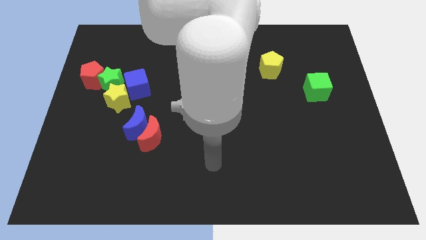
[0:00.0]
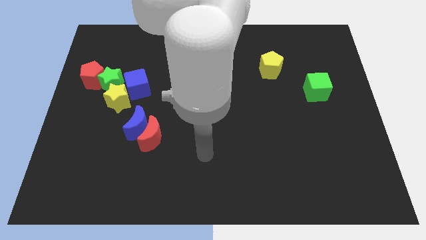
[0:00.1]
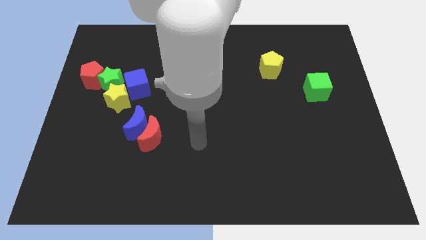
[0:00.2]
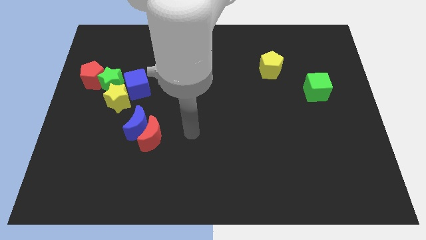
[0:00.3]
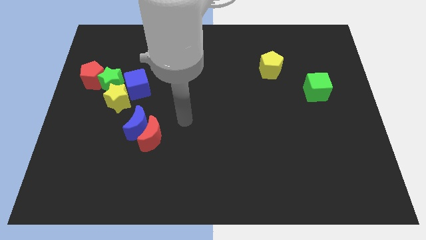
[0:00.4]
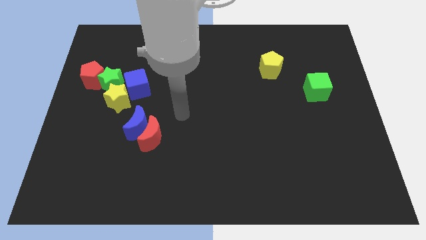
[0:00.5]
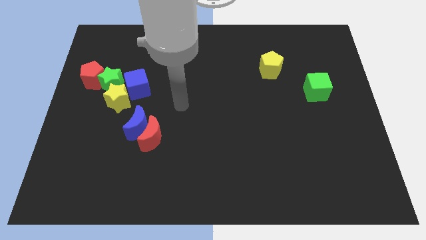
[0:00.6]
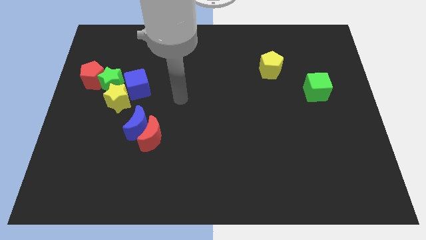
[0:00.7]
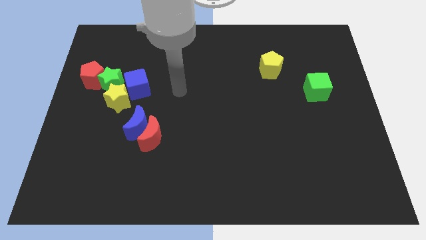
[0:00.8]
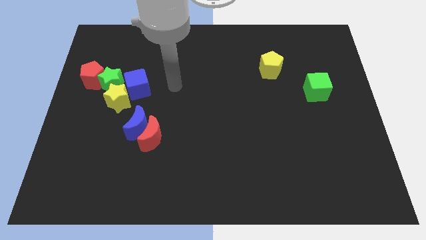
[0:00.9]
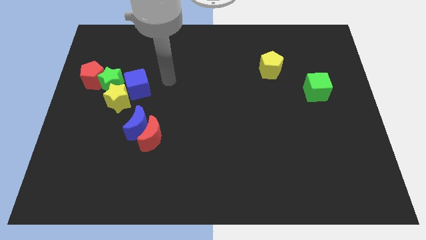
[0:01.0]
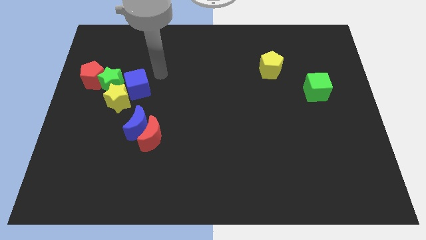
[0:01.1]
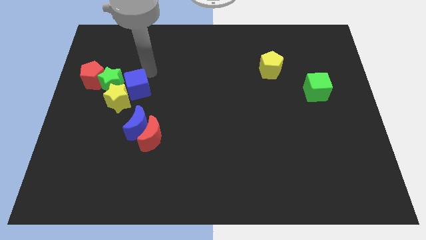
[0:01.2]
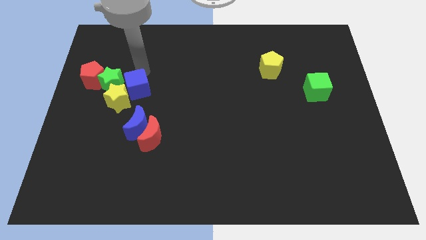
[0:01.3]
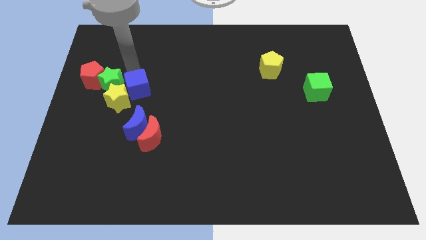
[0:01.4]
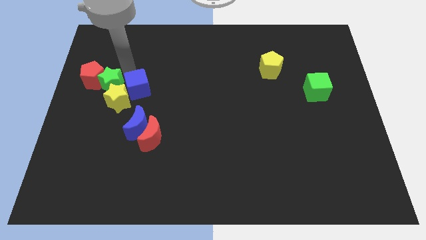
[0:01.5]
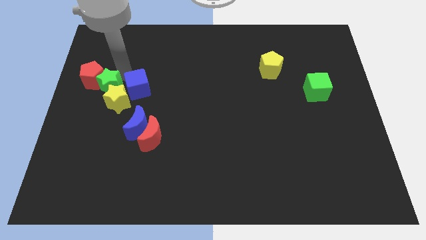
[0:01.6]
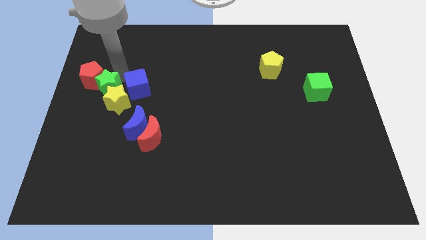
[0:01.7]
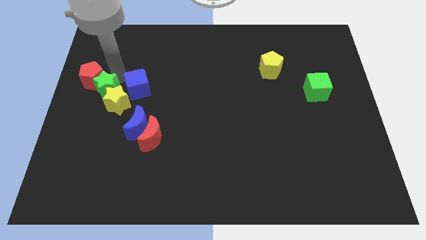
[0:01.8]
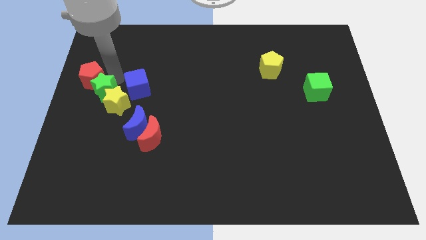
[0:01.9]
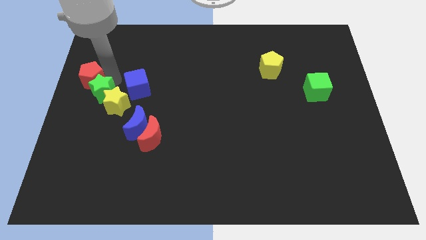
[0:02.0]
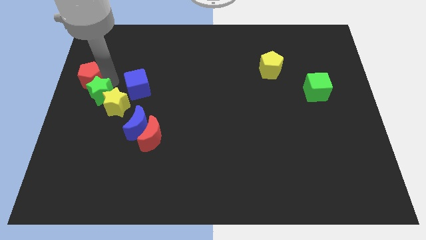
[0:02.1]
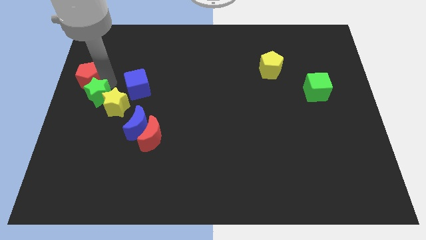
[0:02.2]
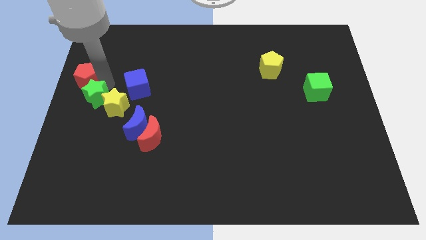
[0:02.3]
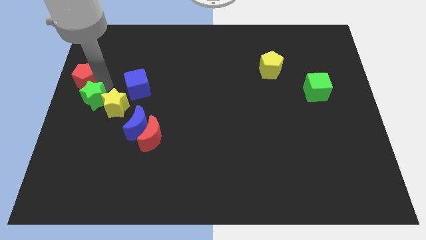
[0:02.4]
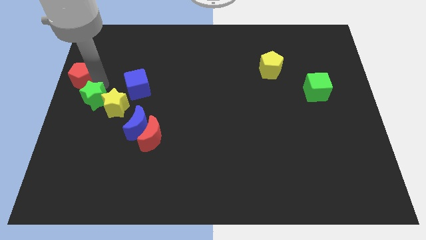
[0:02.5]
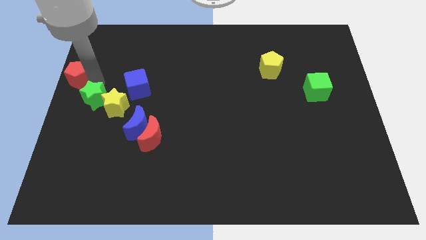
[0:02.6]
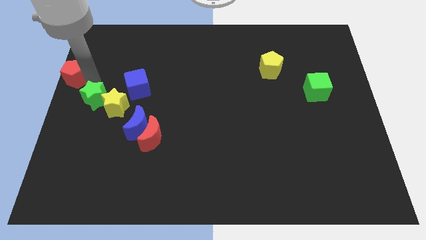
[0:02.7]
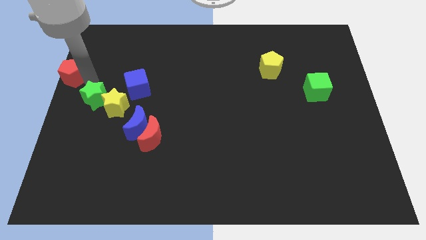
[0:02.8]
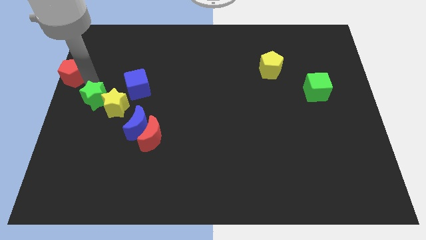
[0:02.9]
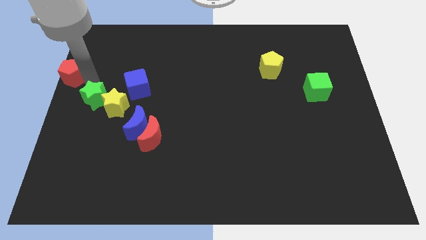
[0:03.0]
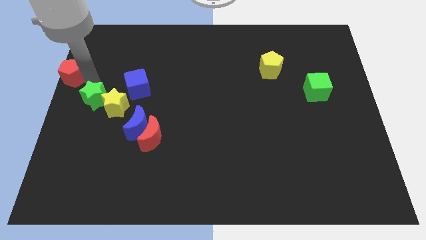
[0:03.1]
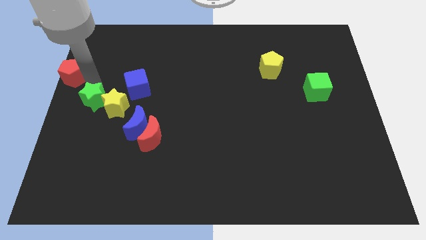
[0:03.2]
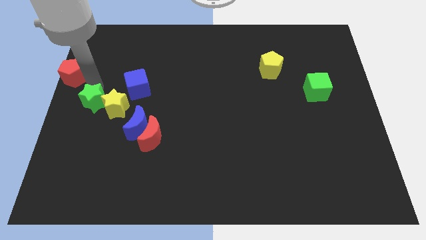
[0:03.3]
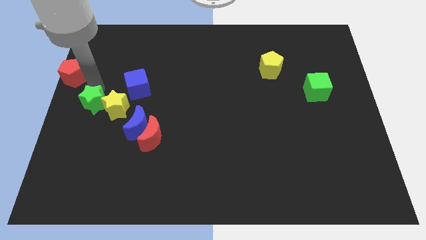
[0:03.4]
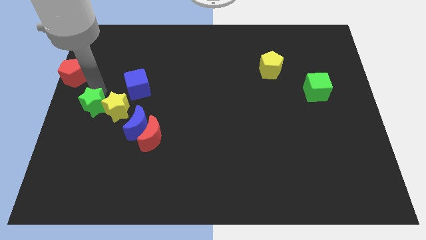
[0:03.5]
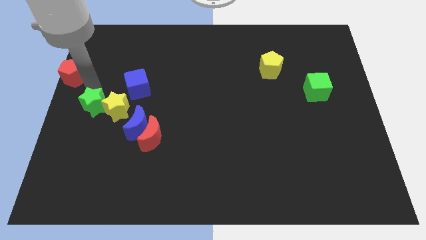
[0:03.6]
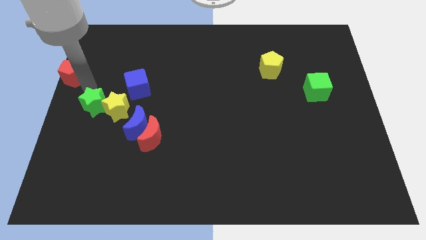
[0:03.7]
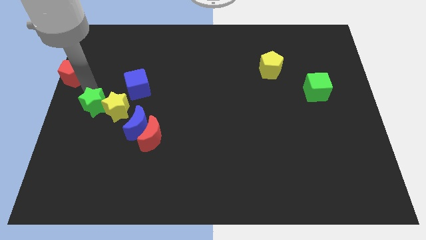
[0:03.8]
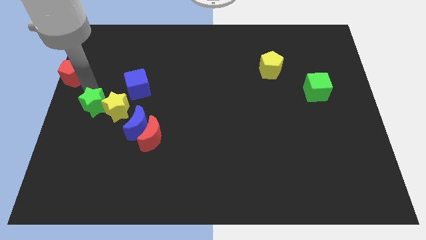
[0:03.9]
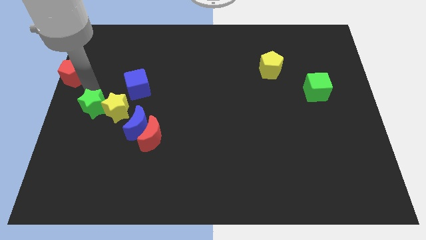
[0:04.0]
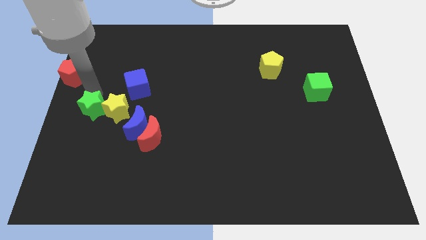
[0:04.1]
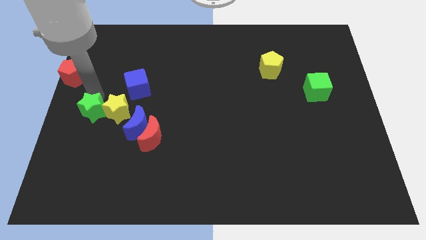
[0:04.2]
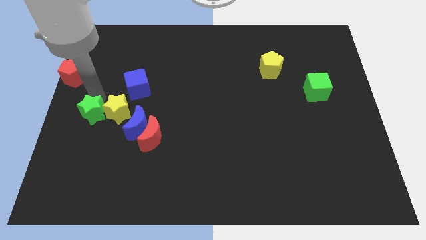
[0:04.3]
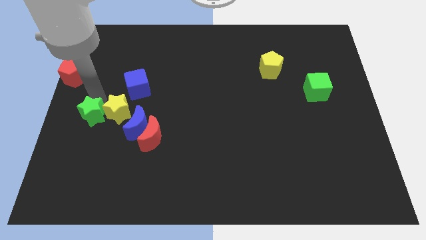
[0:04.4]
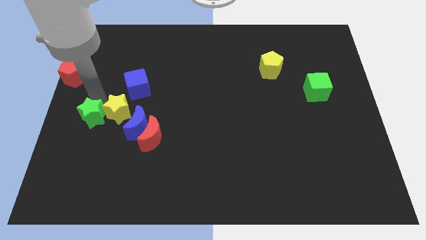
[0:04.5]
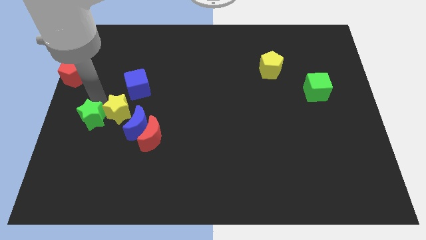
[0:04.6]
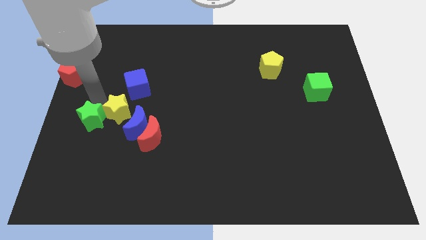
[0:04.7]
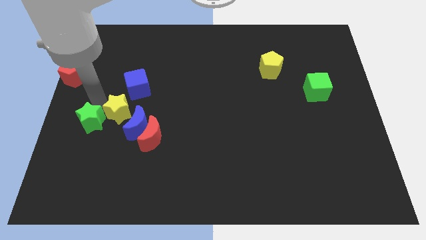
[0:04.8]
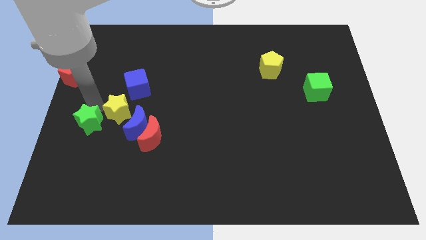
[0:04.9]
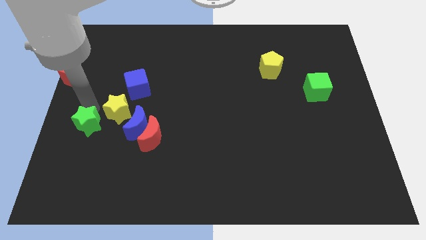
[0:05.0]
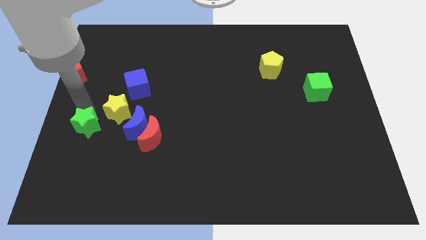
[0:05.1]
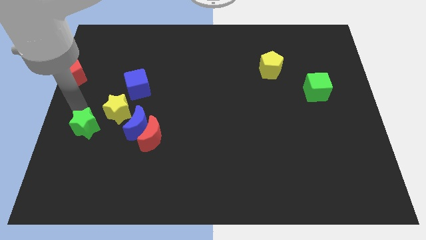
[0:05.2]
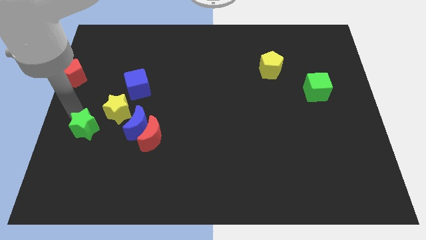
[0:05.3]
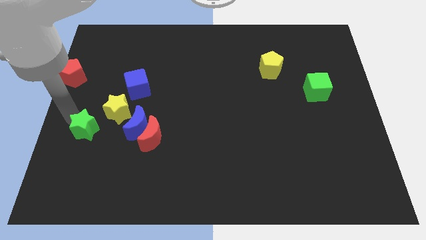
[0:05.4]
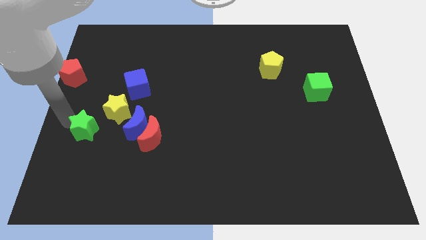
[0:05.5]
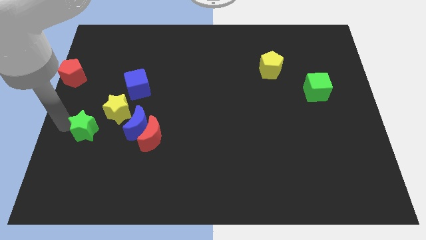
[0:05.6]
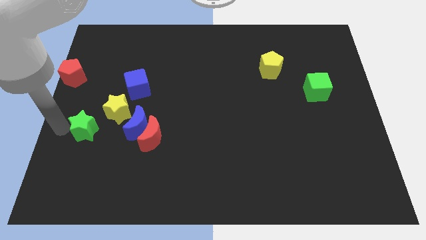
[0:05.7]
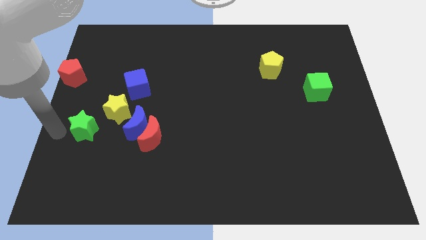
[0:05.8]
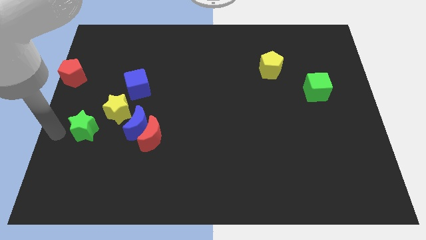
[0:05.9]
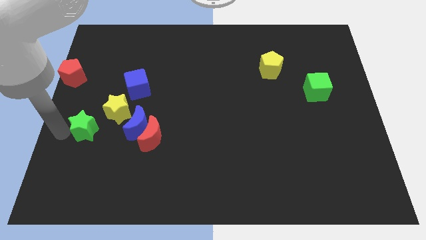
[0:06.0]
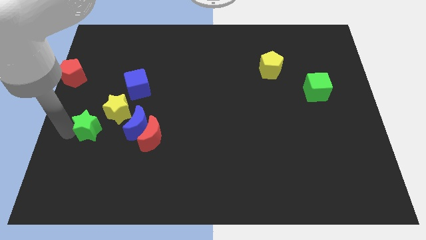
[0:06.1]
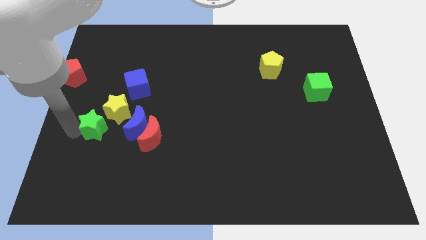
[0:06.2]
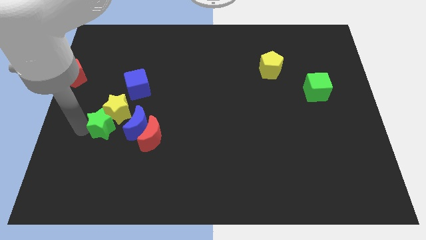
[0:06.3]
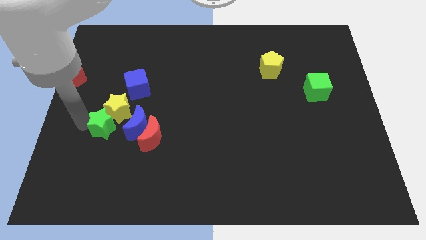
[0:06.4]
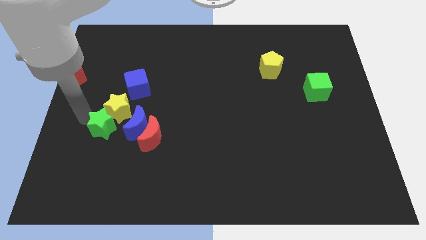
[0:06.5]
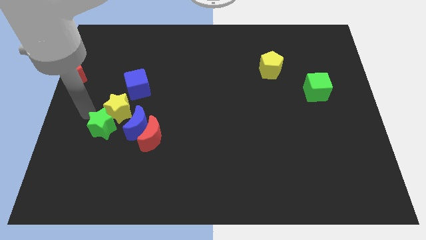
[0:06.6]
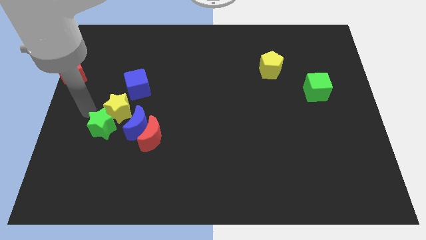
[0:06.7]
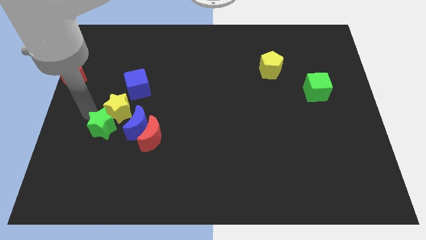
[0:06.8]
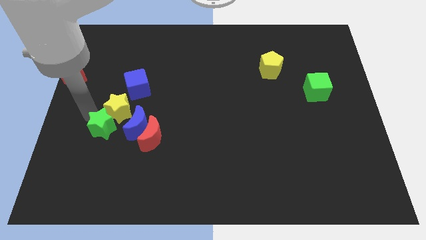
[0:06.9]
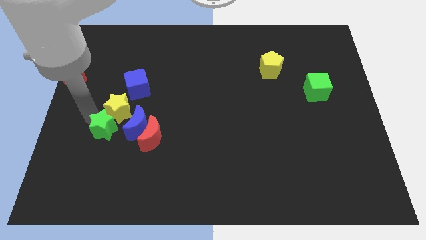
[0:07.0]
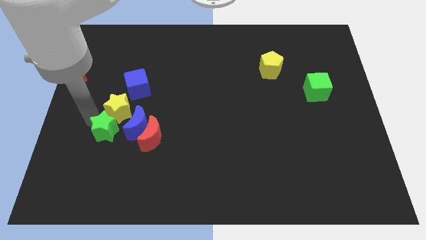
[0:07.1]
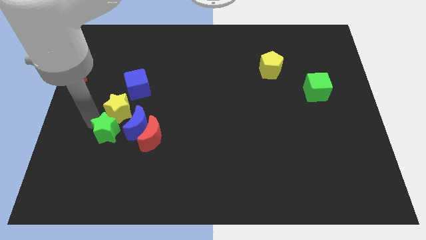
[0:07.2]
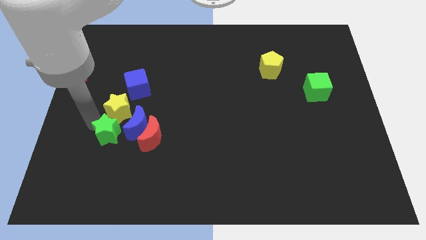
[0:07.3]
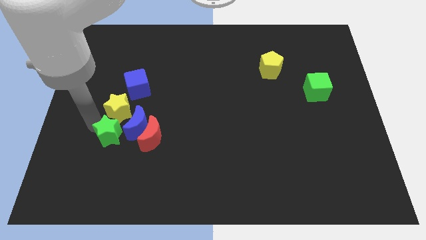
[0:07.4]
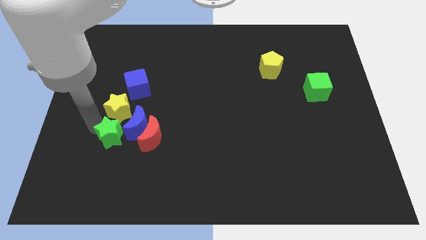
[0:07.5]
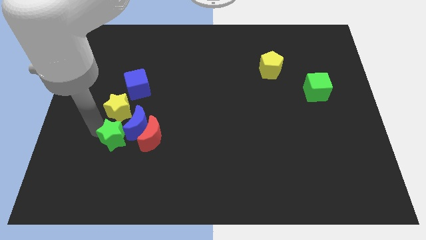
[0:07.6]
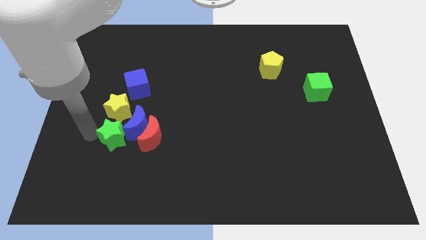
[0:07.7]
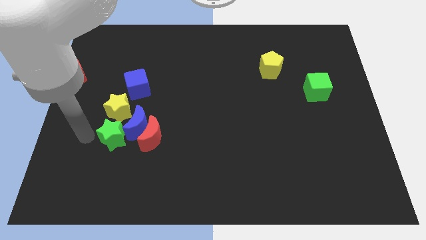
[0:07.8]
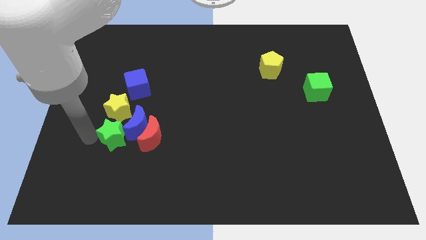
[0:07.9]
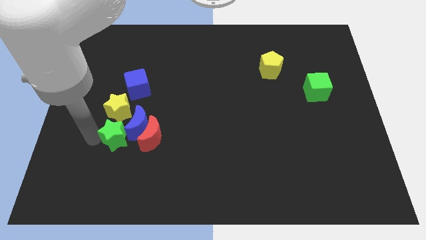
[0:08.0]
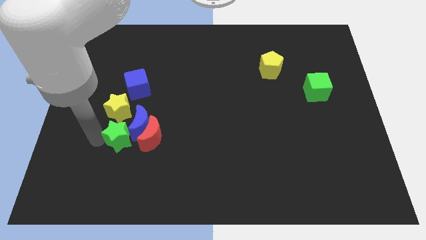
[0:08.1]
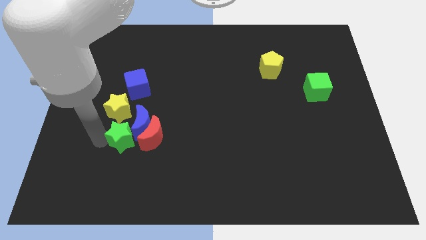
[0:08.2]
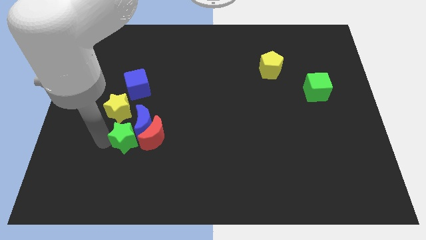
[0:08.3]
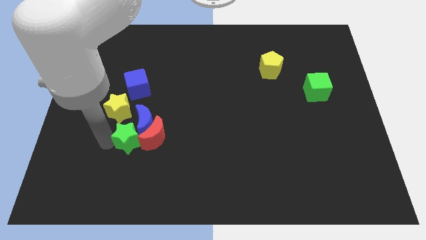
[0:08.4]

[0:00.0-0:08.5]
push the green star to the red moon
